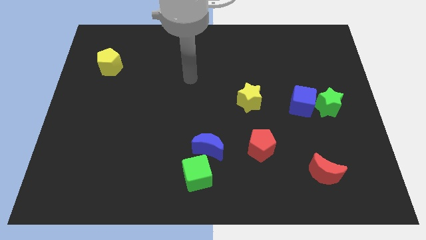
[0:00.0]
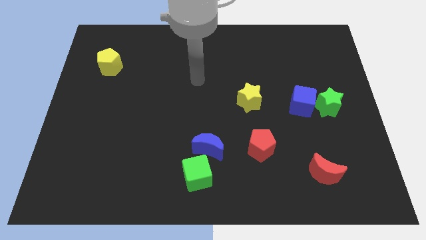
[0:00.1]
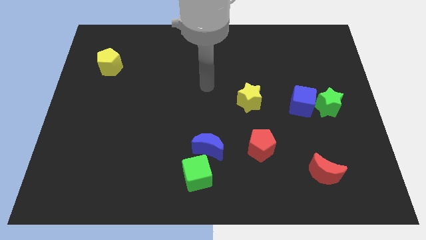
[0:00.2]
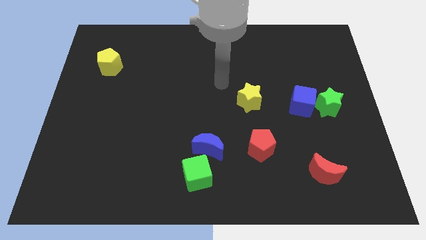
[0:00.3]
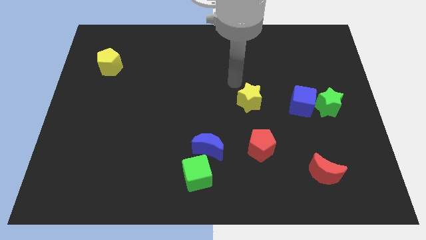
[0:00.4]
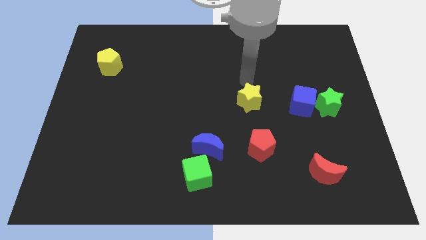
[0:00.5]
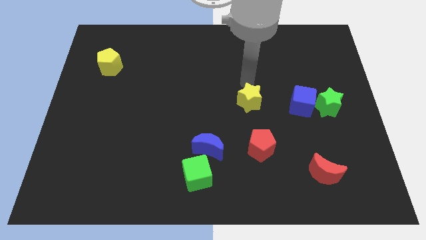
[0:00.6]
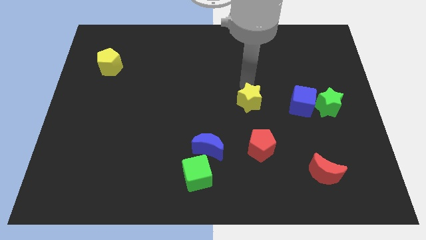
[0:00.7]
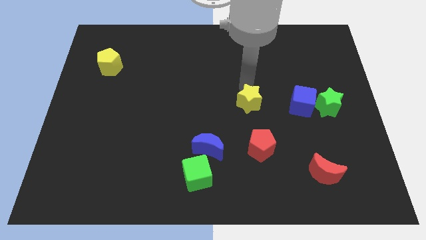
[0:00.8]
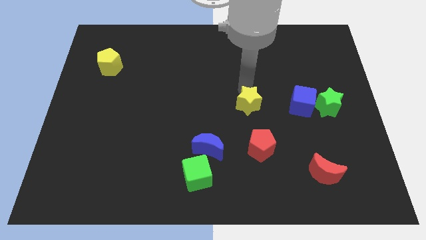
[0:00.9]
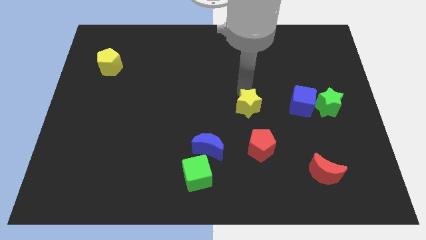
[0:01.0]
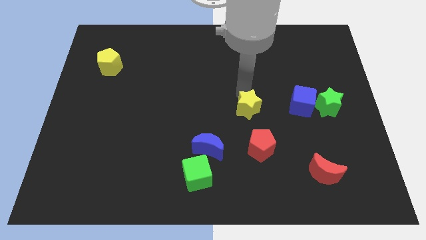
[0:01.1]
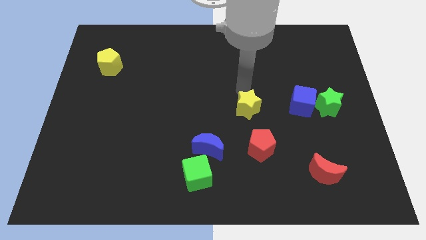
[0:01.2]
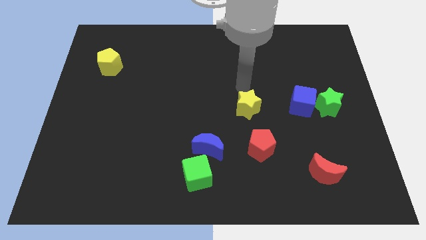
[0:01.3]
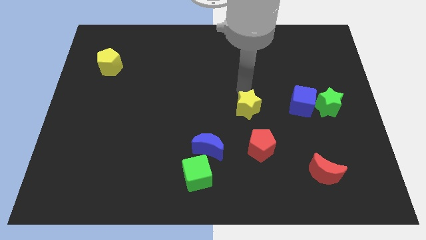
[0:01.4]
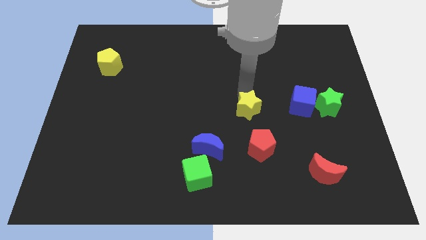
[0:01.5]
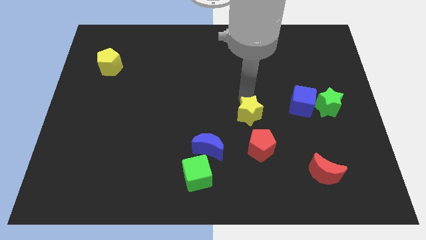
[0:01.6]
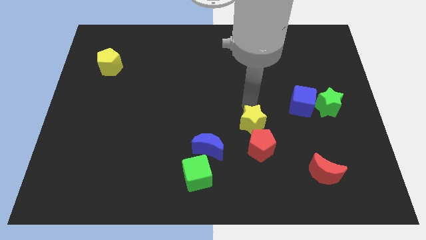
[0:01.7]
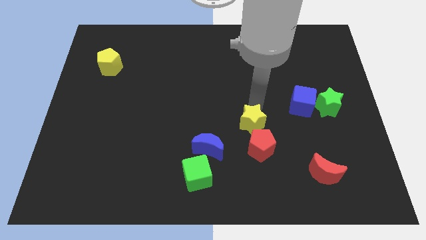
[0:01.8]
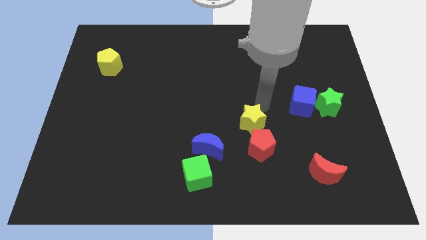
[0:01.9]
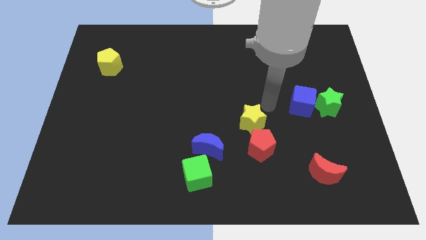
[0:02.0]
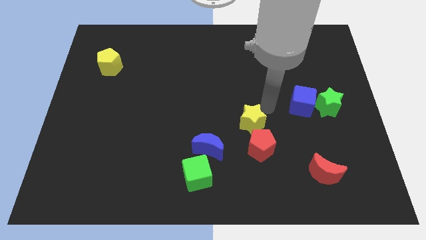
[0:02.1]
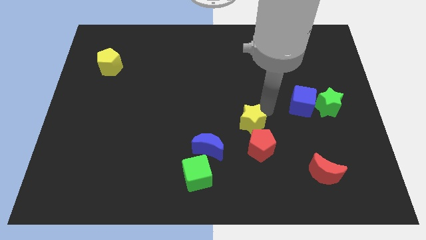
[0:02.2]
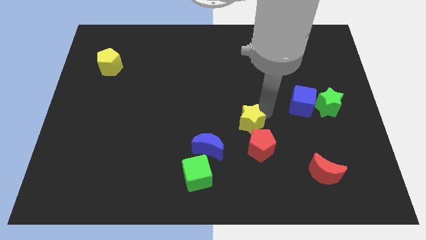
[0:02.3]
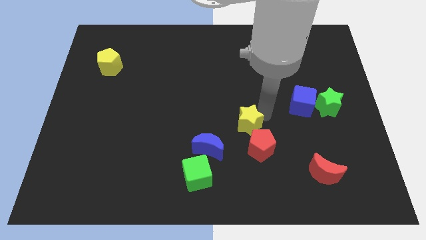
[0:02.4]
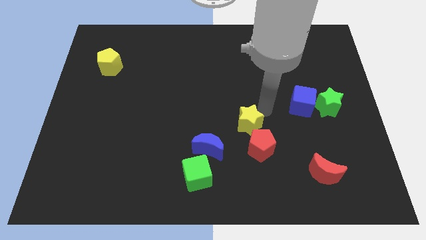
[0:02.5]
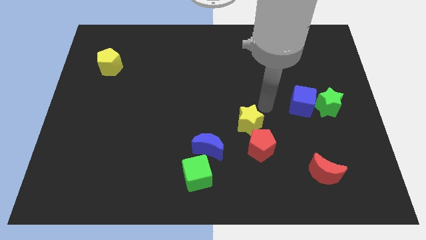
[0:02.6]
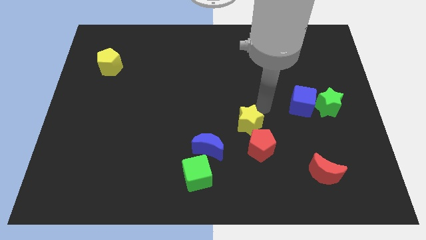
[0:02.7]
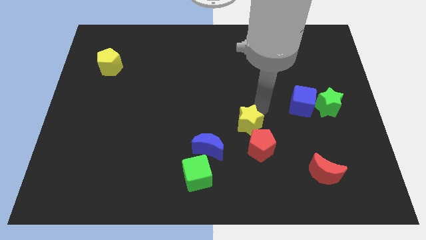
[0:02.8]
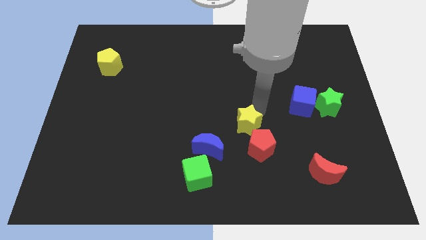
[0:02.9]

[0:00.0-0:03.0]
move the yellow star downwards slightly

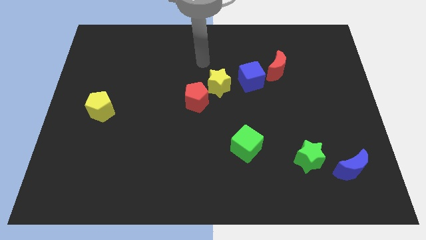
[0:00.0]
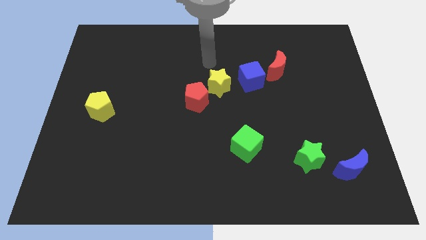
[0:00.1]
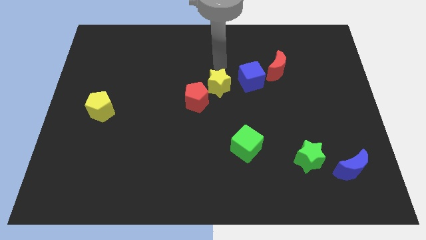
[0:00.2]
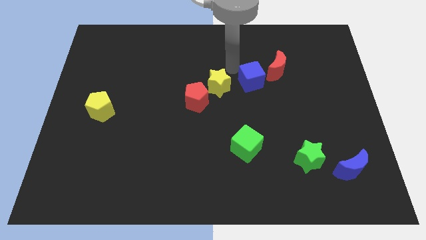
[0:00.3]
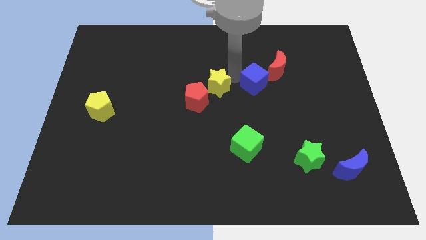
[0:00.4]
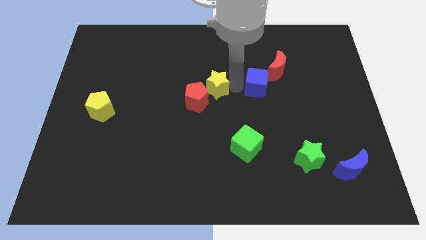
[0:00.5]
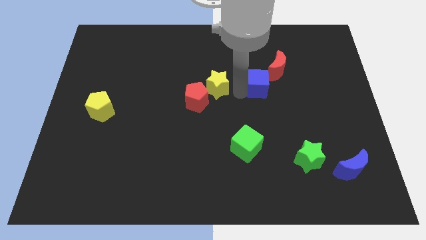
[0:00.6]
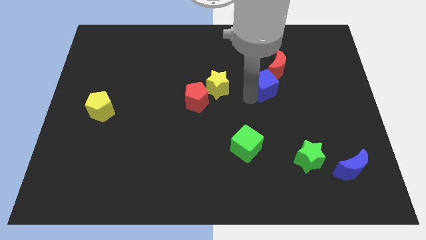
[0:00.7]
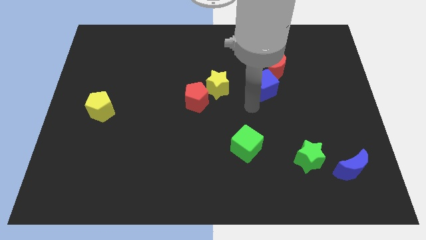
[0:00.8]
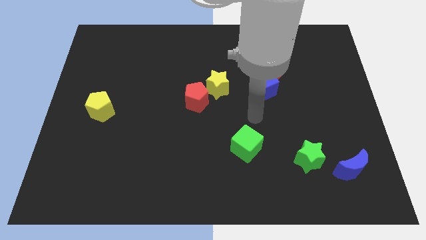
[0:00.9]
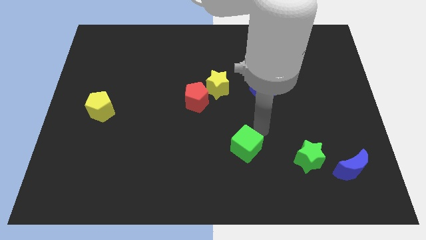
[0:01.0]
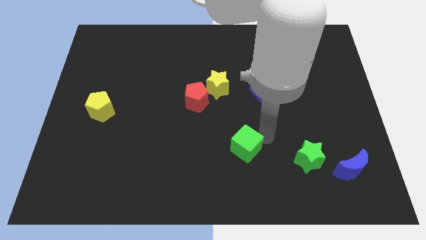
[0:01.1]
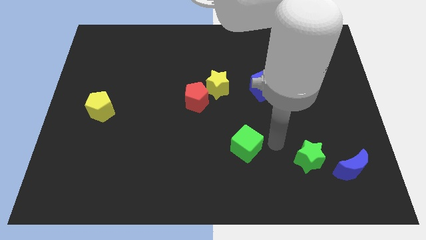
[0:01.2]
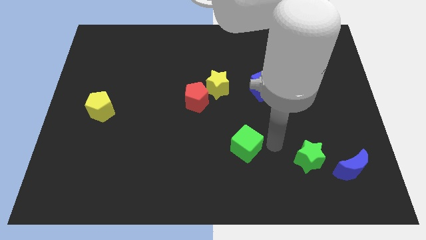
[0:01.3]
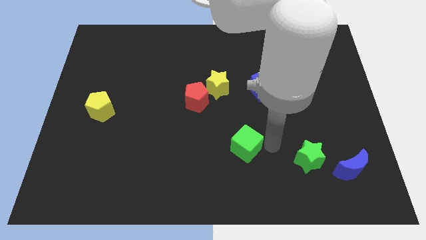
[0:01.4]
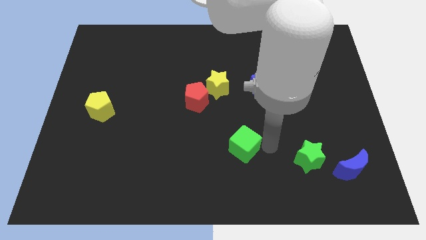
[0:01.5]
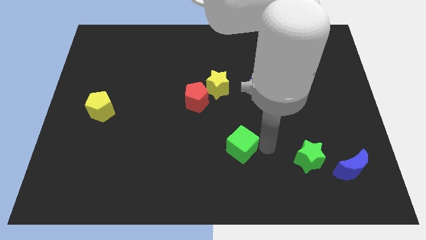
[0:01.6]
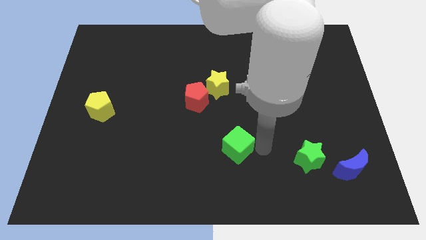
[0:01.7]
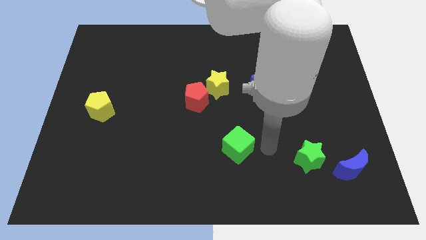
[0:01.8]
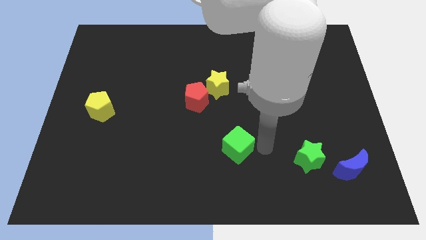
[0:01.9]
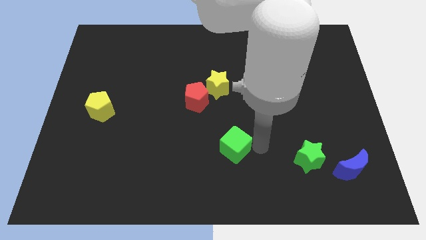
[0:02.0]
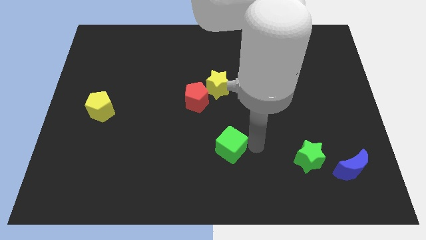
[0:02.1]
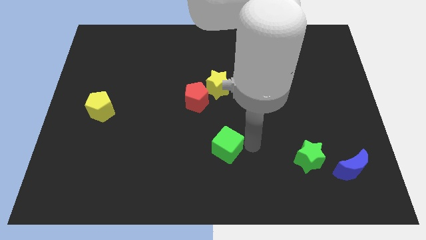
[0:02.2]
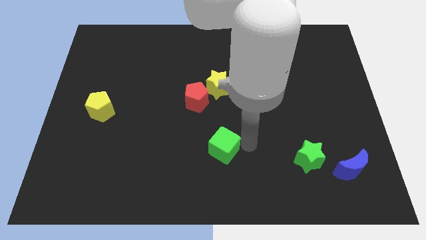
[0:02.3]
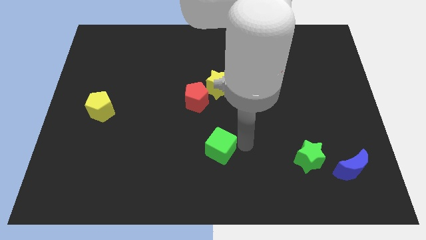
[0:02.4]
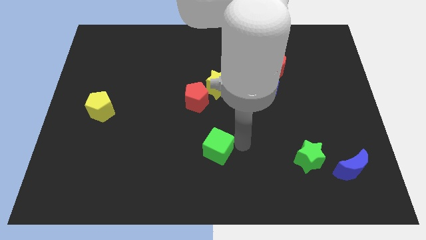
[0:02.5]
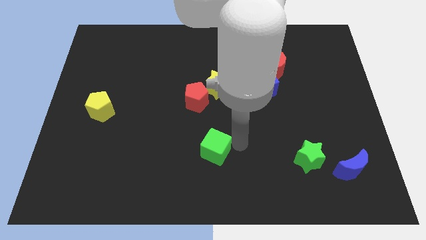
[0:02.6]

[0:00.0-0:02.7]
move the green cube to the left somewhat

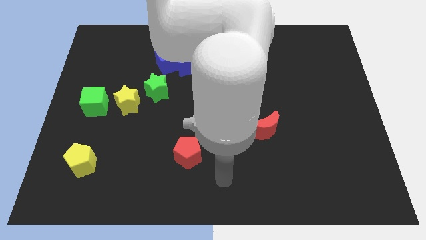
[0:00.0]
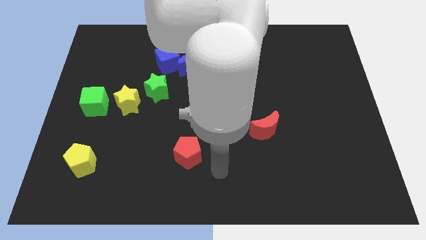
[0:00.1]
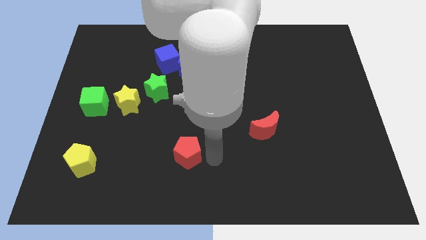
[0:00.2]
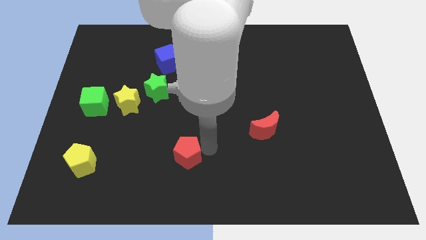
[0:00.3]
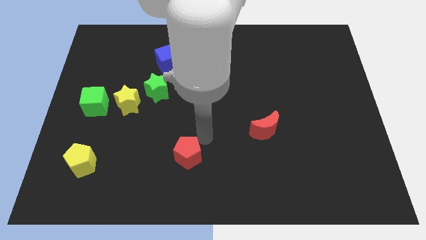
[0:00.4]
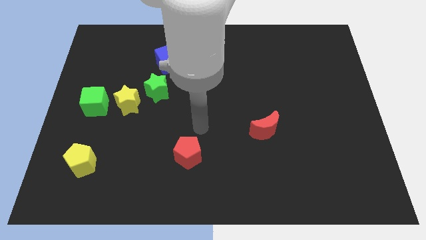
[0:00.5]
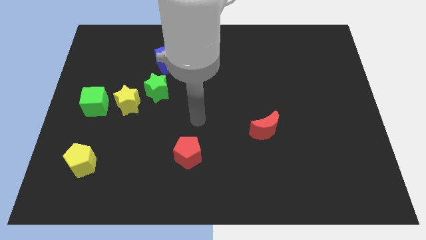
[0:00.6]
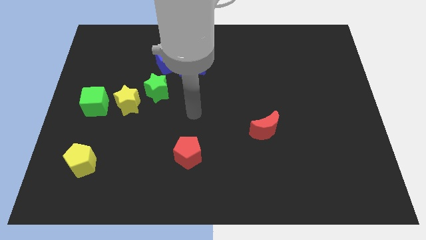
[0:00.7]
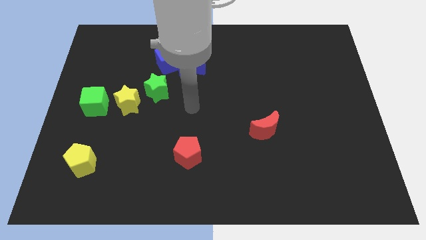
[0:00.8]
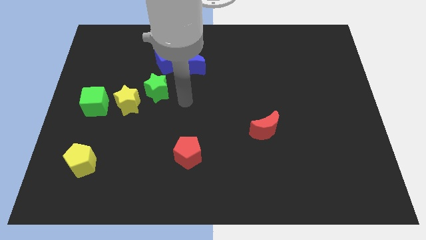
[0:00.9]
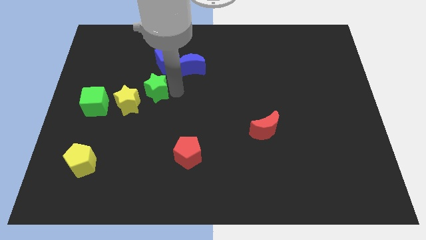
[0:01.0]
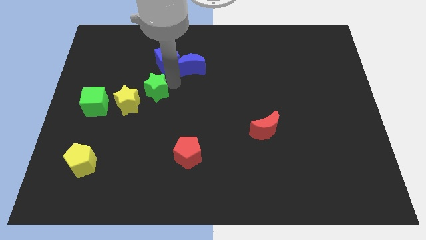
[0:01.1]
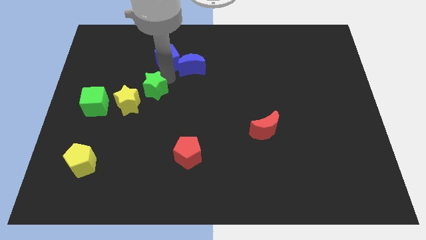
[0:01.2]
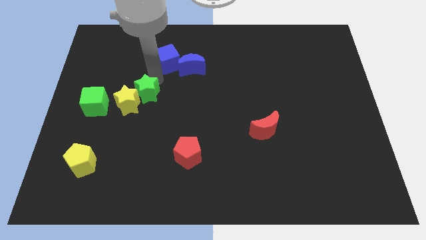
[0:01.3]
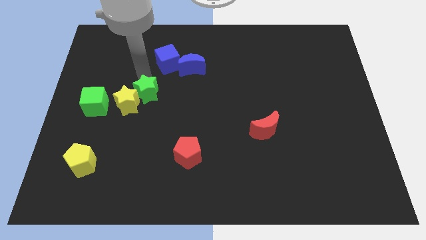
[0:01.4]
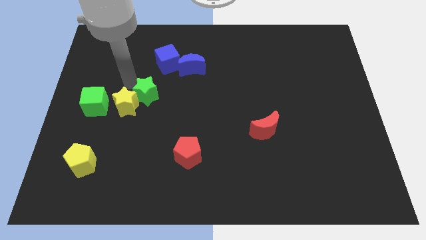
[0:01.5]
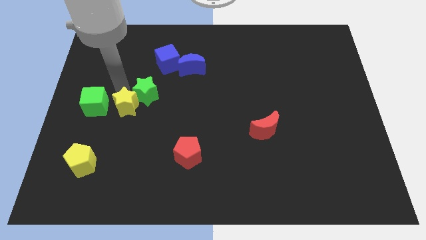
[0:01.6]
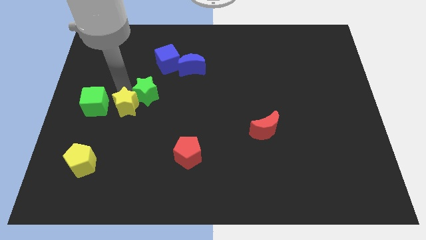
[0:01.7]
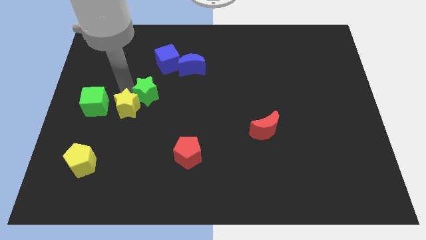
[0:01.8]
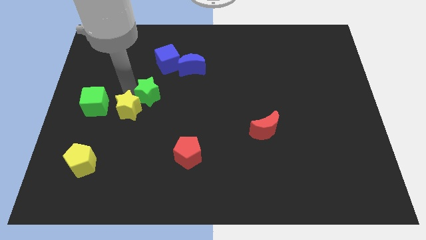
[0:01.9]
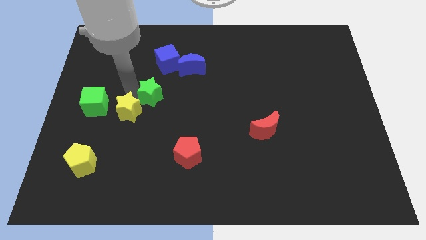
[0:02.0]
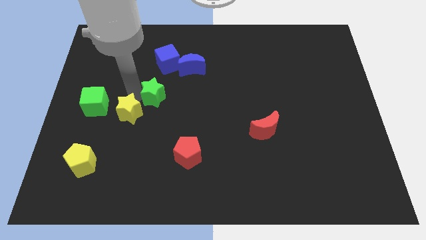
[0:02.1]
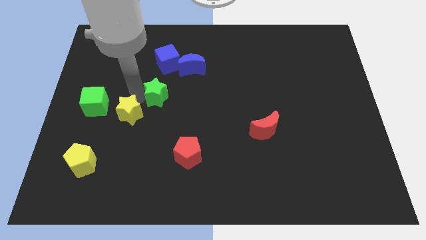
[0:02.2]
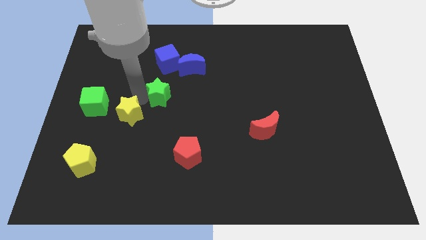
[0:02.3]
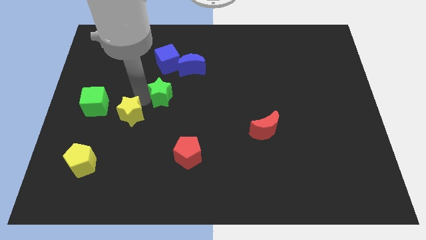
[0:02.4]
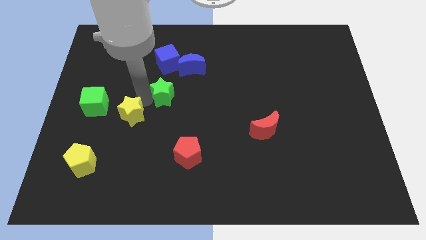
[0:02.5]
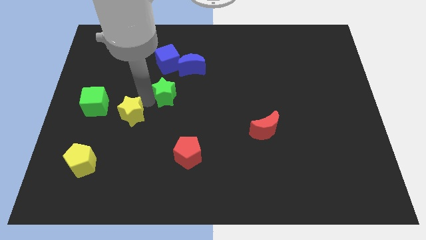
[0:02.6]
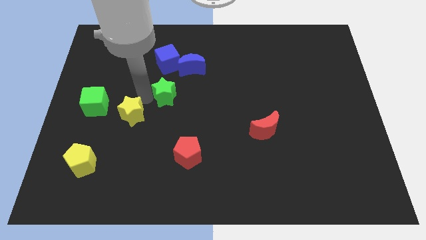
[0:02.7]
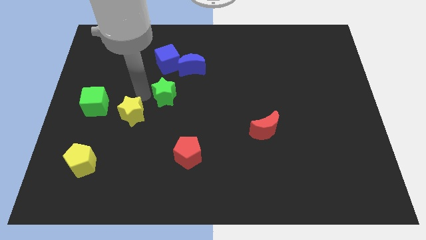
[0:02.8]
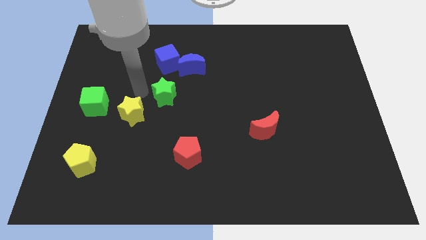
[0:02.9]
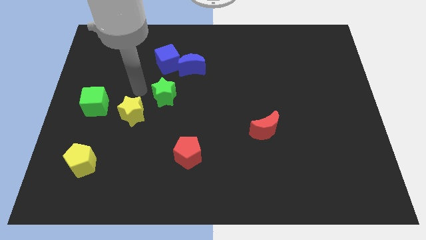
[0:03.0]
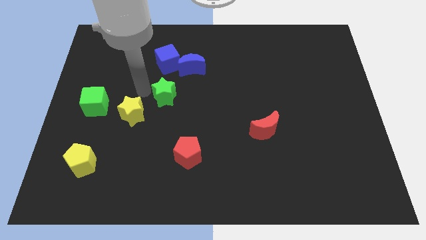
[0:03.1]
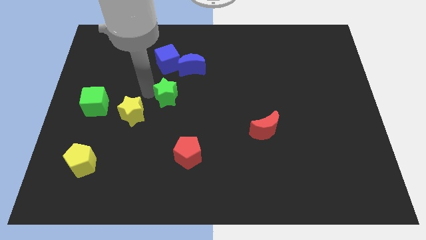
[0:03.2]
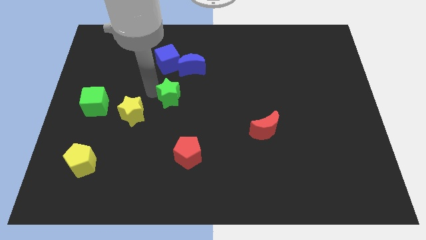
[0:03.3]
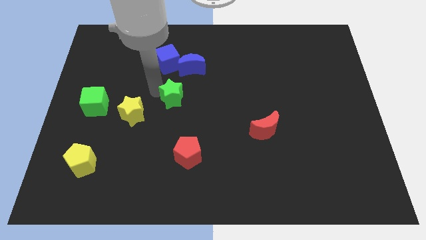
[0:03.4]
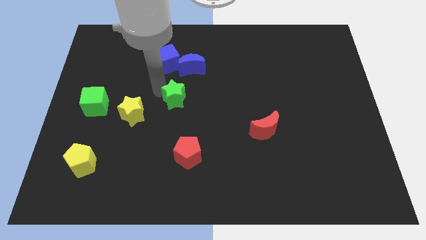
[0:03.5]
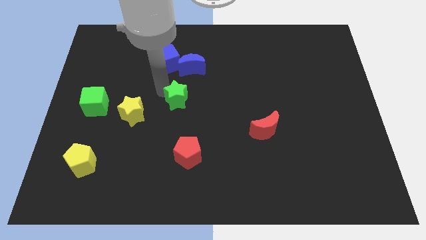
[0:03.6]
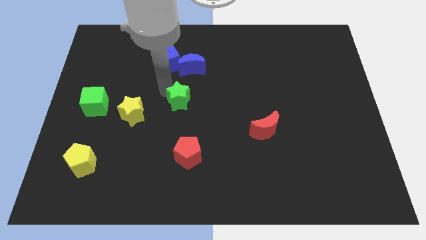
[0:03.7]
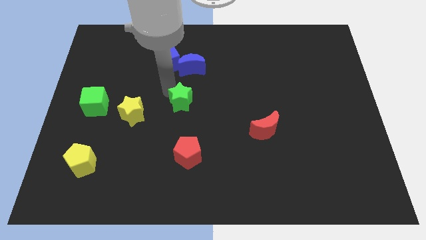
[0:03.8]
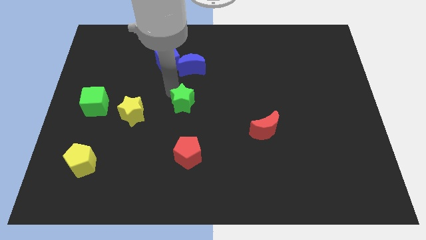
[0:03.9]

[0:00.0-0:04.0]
push the green star slightly down and to the right diagonally
